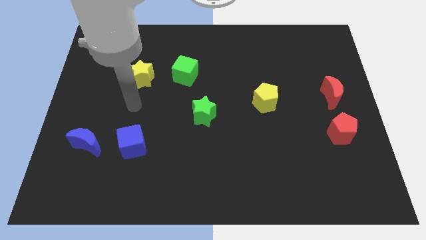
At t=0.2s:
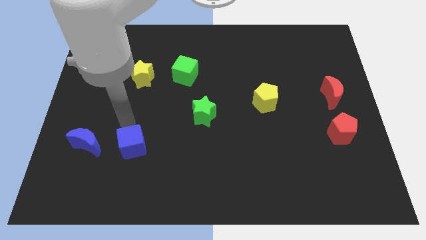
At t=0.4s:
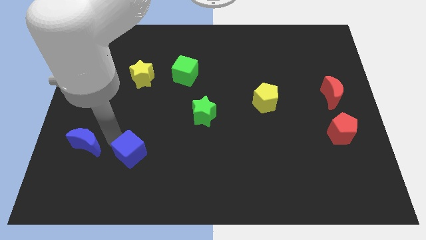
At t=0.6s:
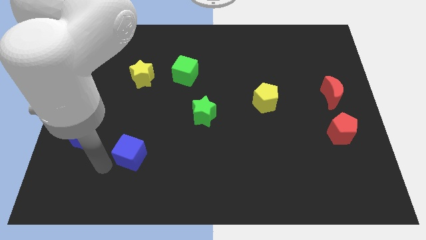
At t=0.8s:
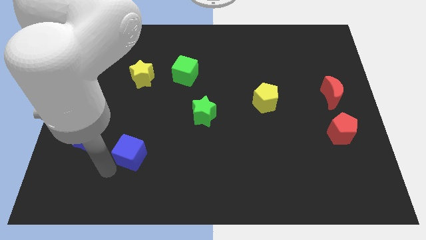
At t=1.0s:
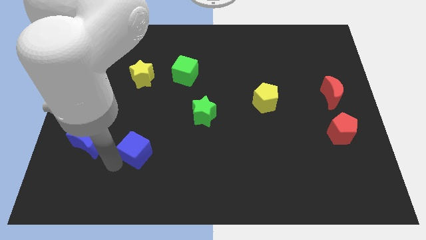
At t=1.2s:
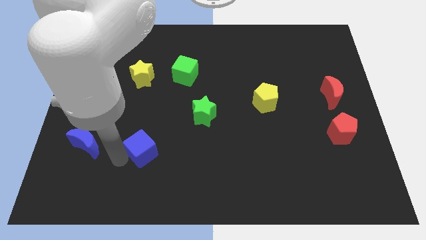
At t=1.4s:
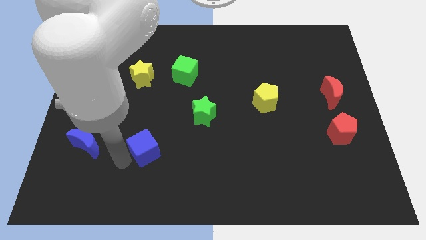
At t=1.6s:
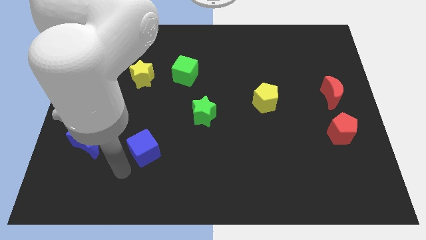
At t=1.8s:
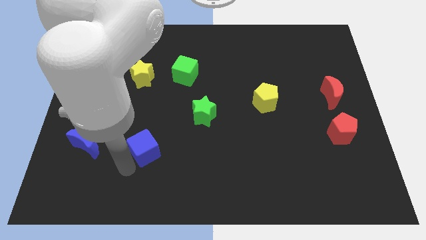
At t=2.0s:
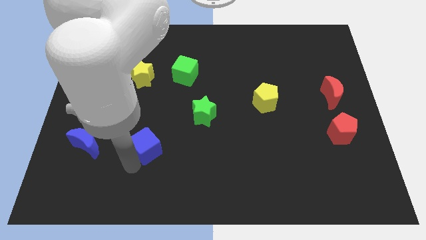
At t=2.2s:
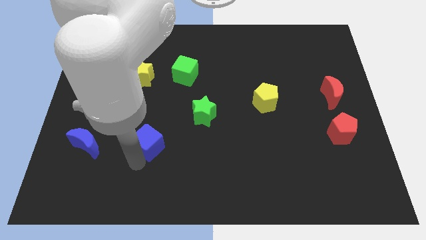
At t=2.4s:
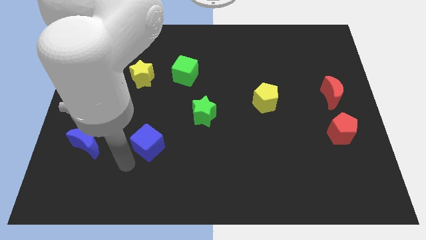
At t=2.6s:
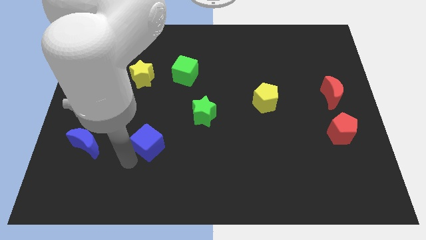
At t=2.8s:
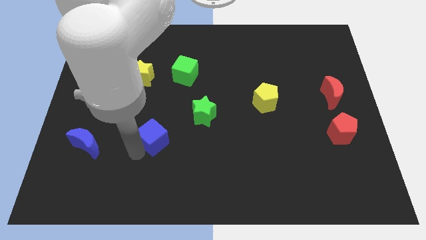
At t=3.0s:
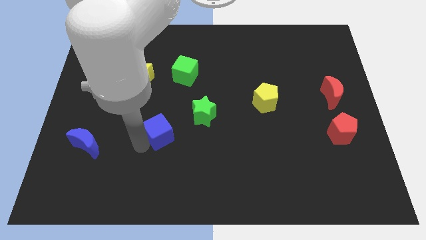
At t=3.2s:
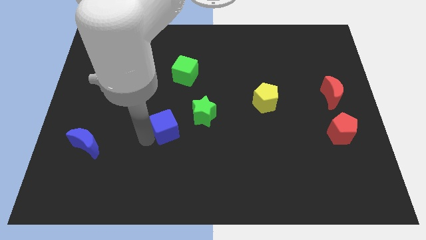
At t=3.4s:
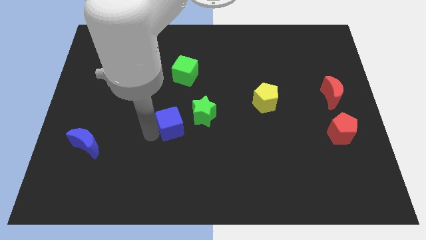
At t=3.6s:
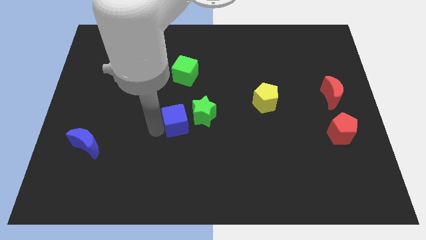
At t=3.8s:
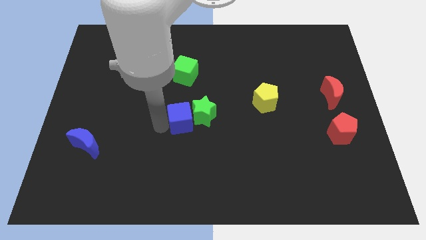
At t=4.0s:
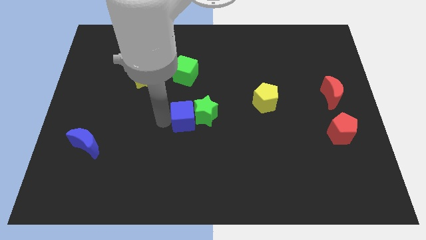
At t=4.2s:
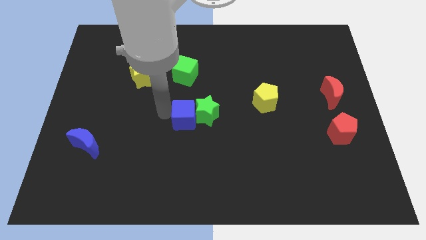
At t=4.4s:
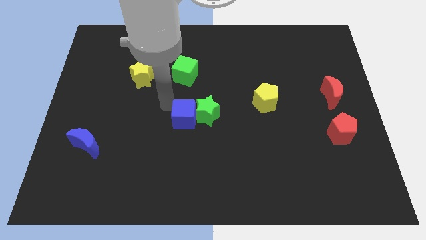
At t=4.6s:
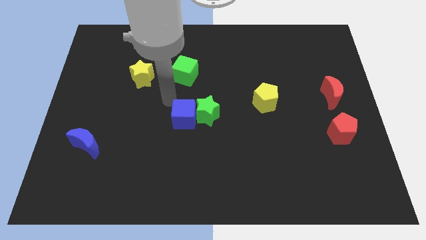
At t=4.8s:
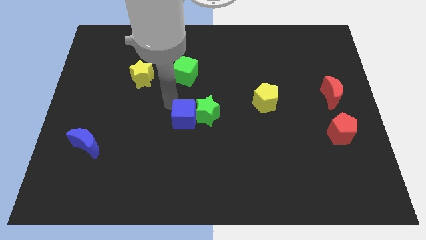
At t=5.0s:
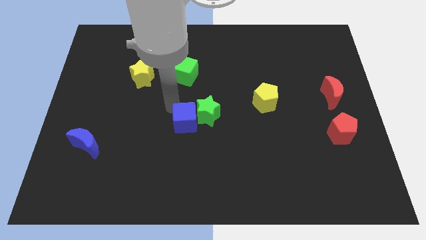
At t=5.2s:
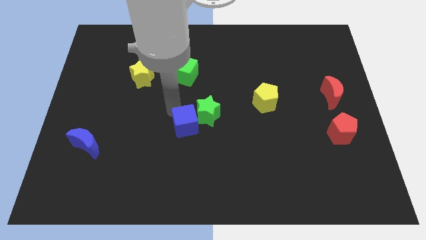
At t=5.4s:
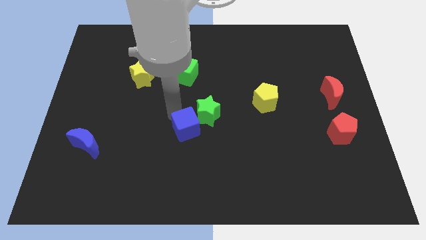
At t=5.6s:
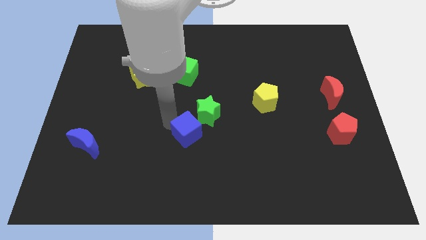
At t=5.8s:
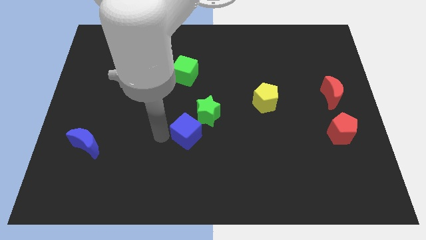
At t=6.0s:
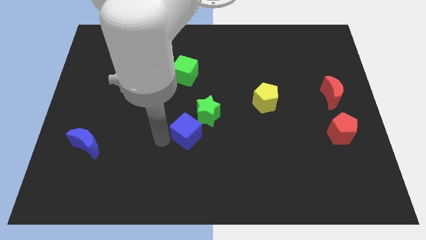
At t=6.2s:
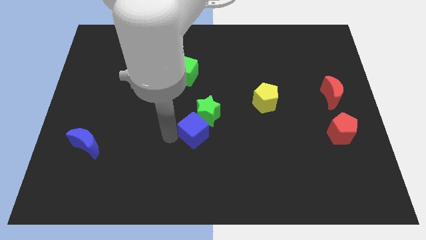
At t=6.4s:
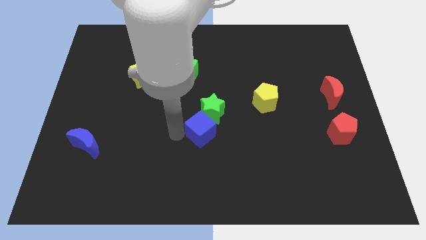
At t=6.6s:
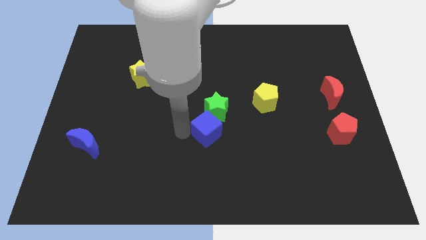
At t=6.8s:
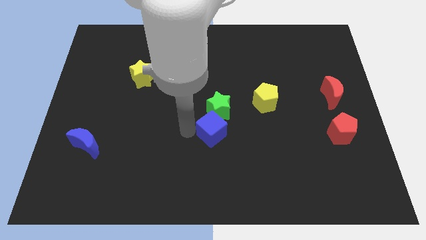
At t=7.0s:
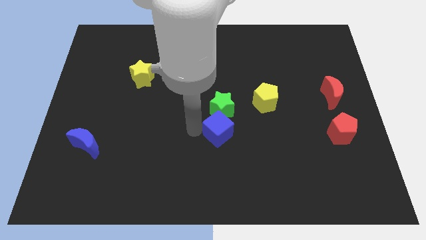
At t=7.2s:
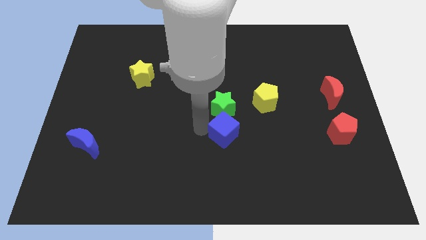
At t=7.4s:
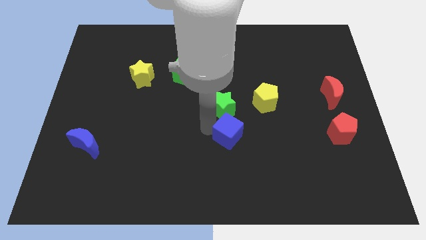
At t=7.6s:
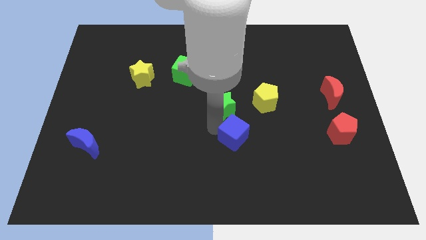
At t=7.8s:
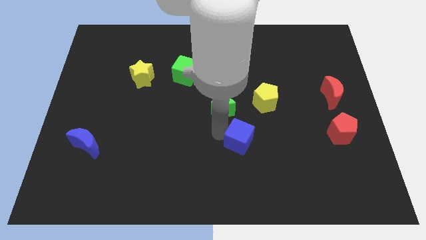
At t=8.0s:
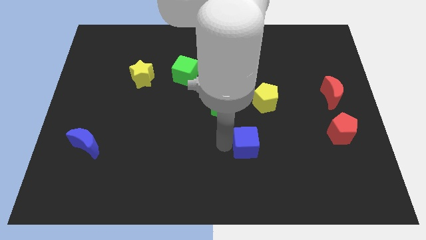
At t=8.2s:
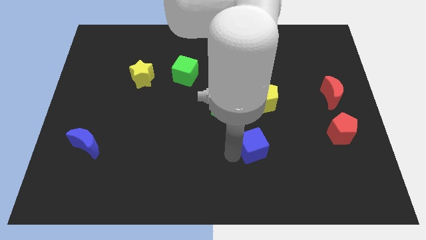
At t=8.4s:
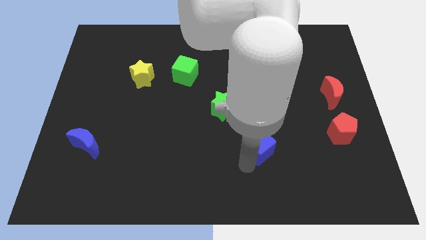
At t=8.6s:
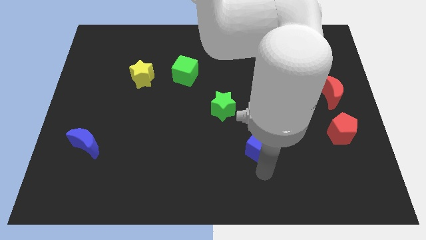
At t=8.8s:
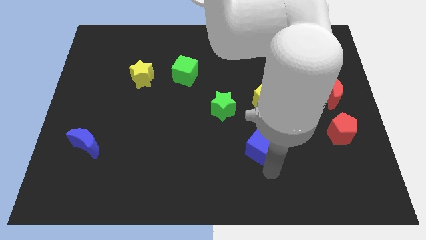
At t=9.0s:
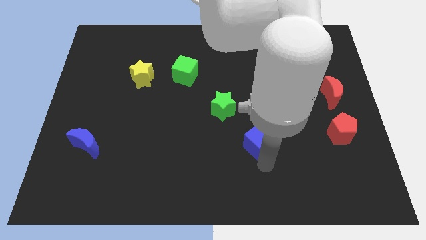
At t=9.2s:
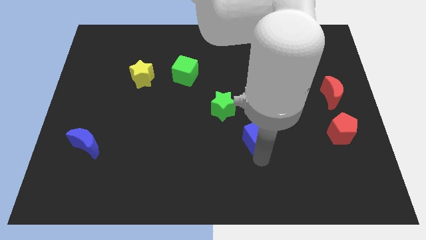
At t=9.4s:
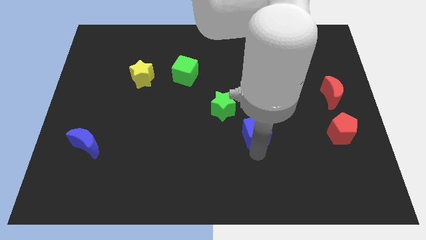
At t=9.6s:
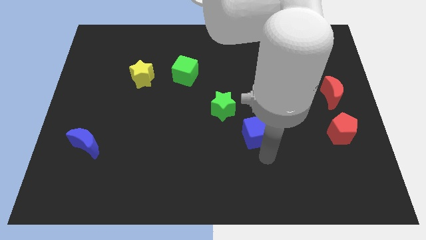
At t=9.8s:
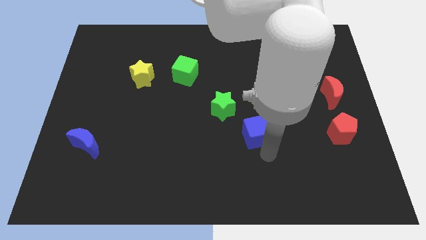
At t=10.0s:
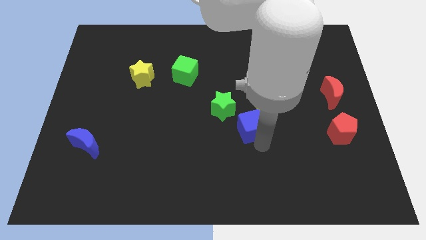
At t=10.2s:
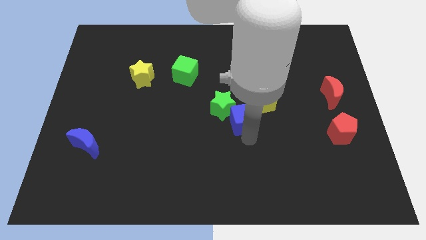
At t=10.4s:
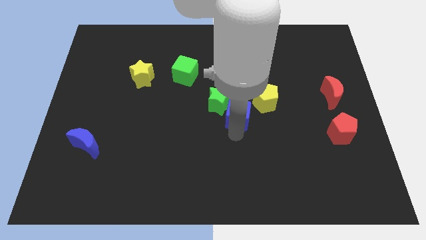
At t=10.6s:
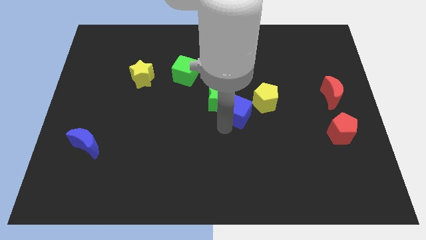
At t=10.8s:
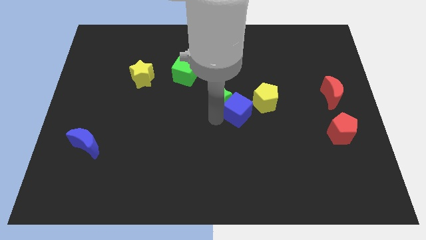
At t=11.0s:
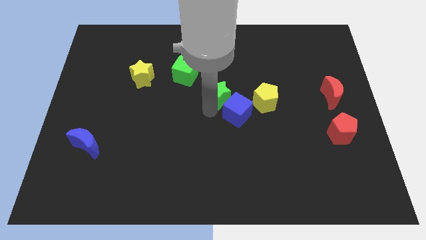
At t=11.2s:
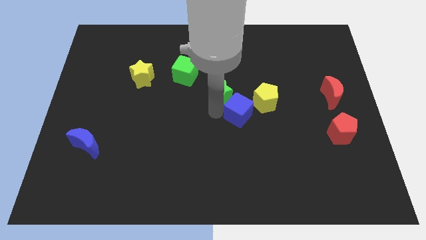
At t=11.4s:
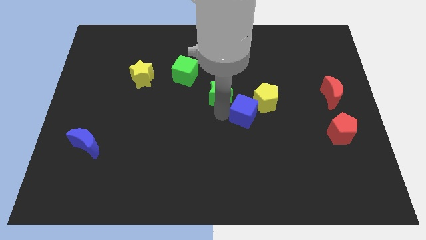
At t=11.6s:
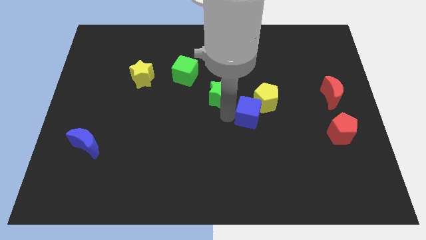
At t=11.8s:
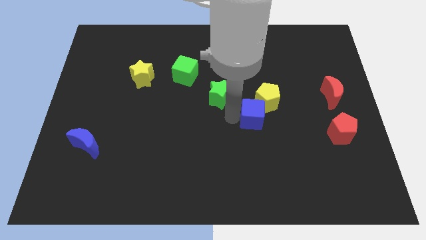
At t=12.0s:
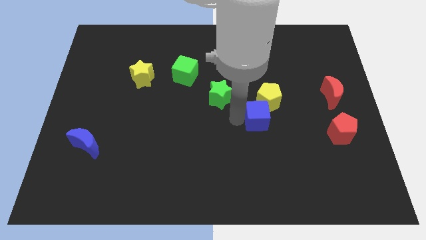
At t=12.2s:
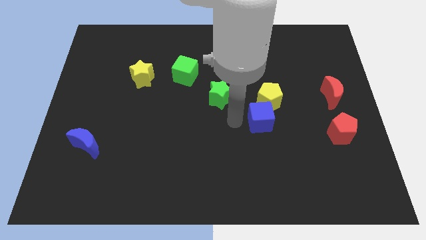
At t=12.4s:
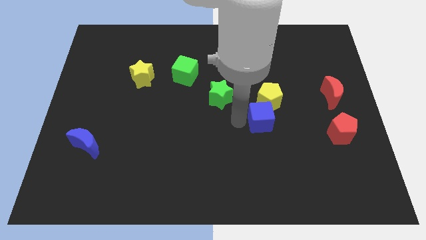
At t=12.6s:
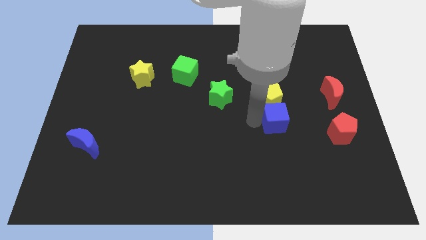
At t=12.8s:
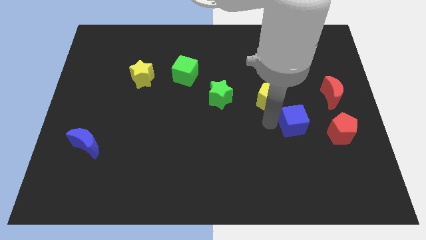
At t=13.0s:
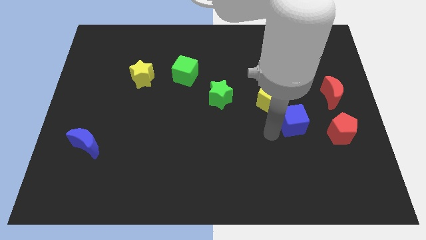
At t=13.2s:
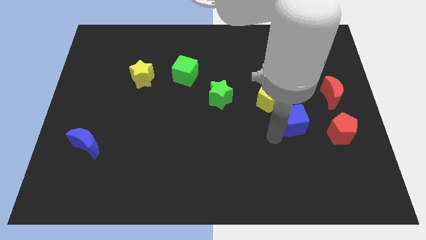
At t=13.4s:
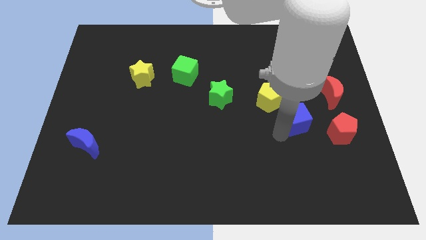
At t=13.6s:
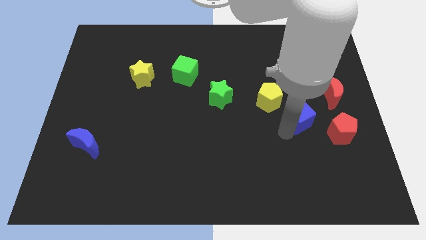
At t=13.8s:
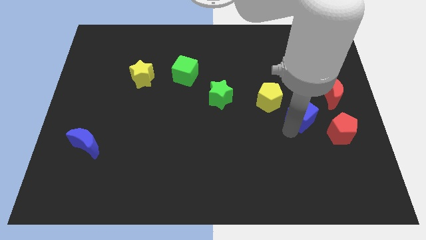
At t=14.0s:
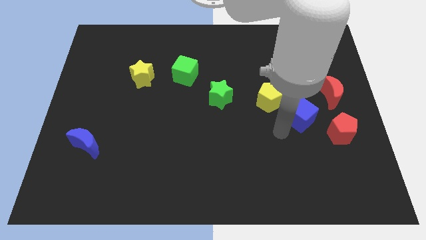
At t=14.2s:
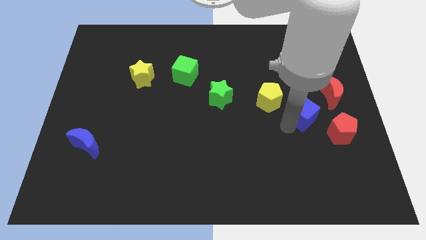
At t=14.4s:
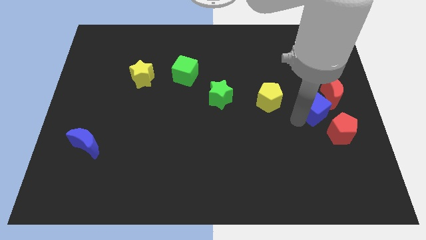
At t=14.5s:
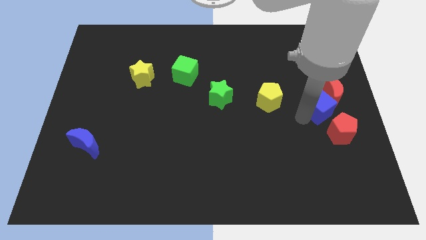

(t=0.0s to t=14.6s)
slide the blue cube close to the red moon

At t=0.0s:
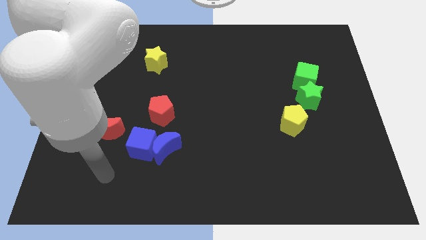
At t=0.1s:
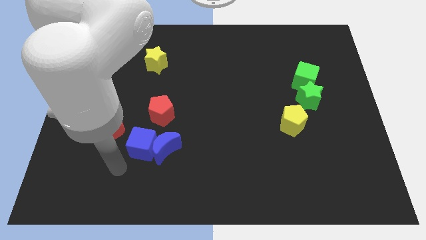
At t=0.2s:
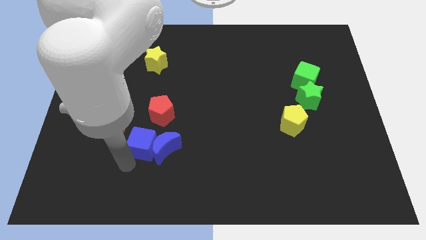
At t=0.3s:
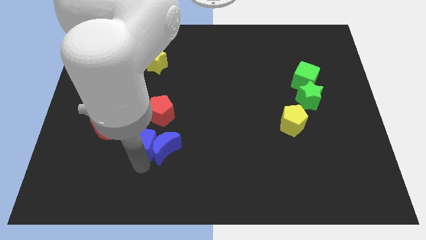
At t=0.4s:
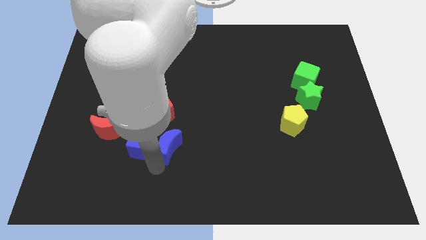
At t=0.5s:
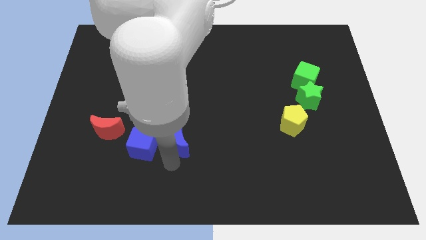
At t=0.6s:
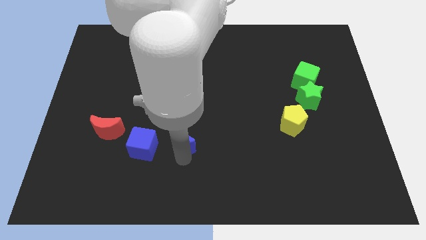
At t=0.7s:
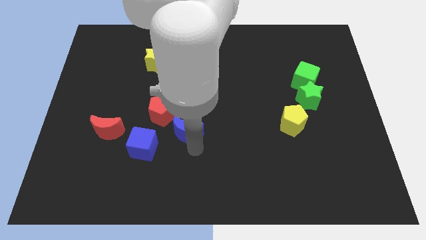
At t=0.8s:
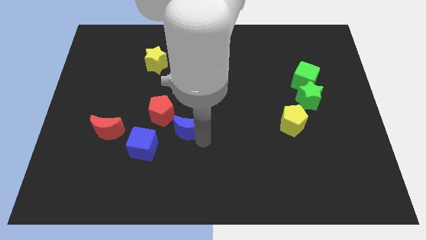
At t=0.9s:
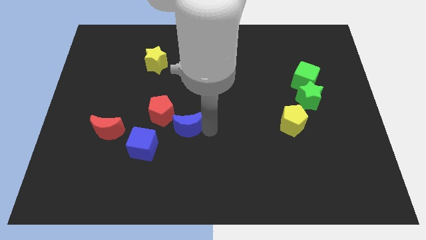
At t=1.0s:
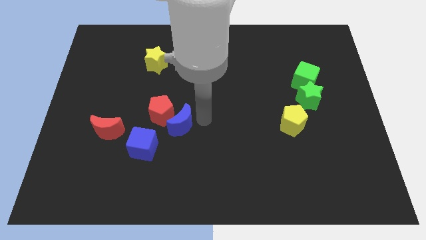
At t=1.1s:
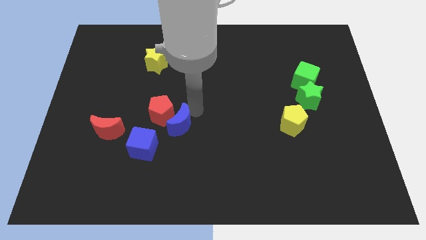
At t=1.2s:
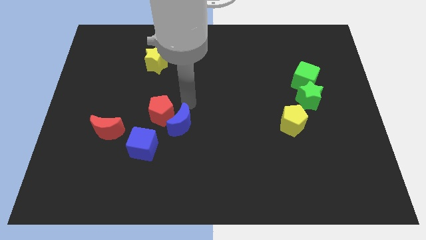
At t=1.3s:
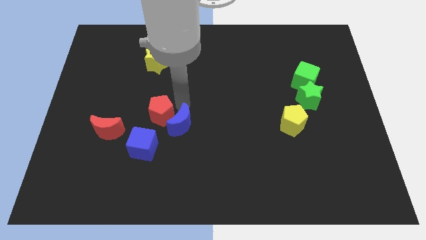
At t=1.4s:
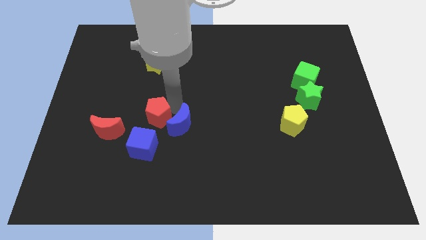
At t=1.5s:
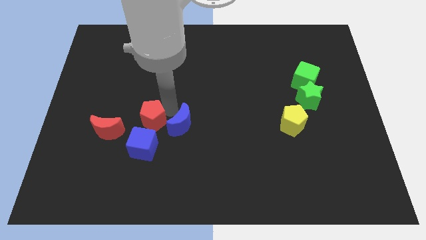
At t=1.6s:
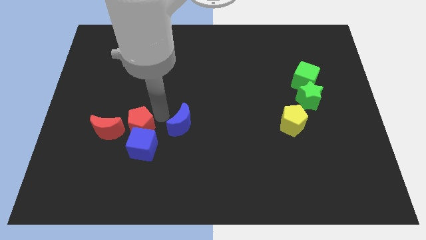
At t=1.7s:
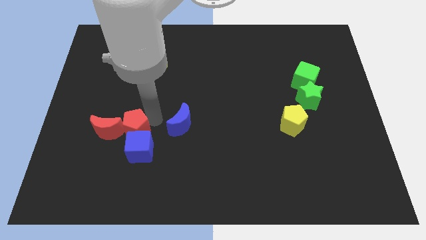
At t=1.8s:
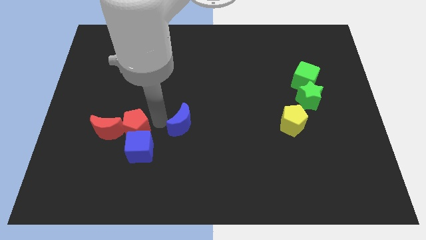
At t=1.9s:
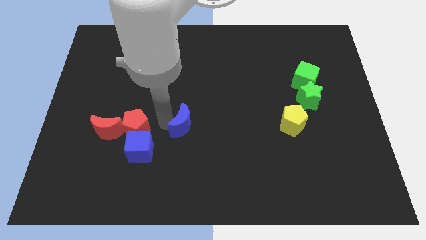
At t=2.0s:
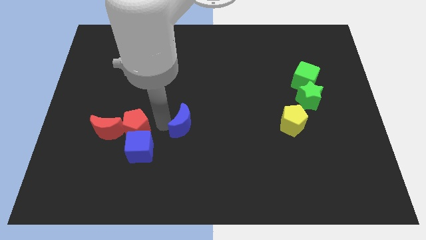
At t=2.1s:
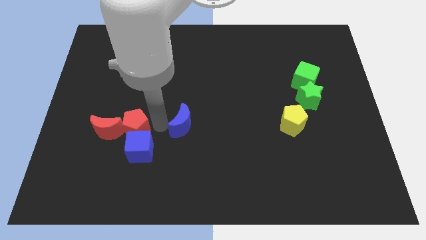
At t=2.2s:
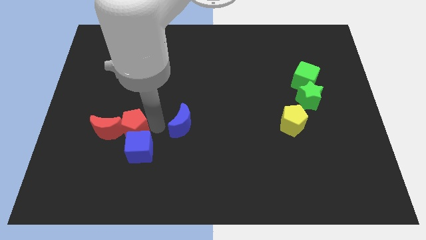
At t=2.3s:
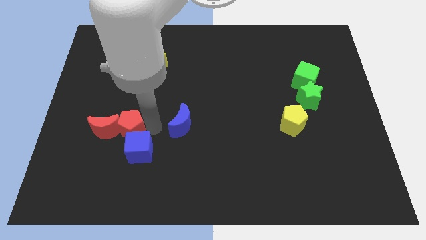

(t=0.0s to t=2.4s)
slide the red pentagon close to the red moon
